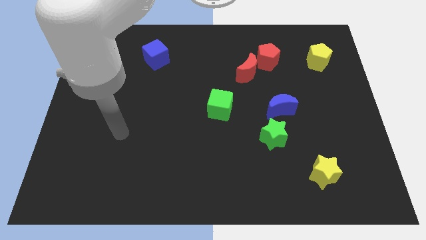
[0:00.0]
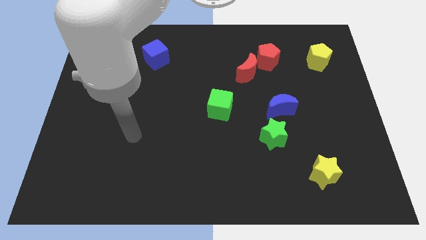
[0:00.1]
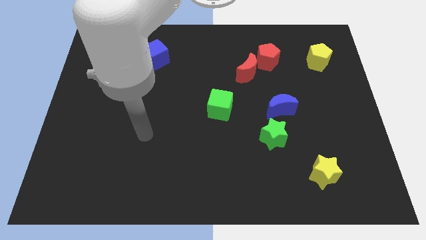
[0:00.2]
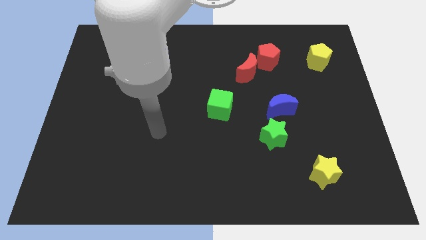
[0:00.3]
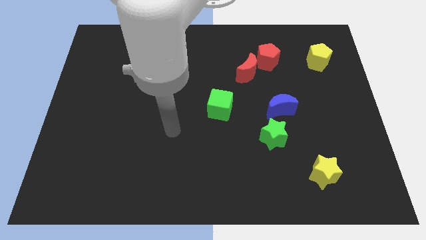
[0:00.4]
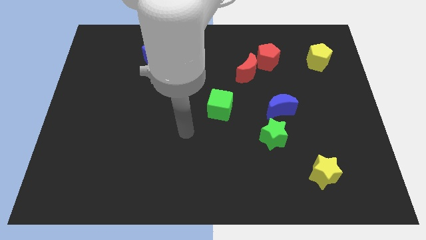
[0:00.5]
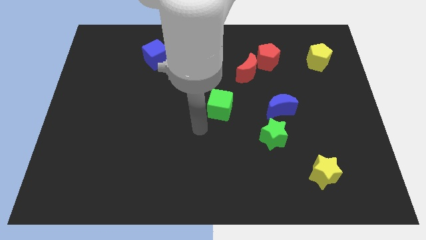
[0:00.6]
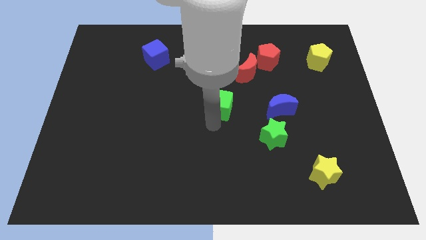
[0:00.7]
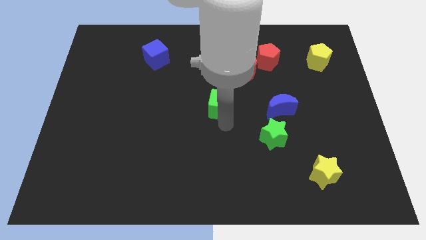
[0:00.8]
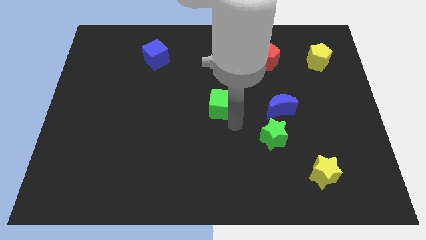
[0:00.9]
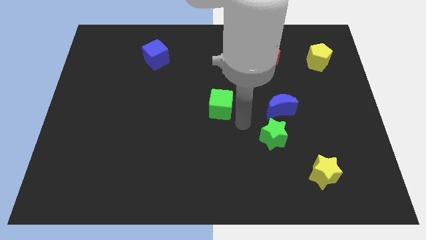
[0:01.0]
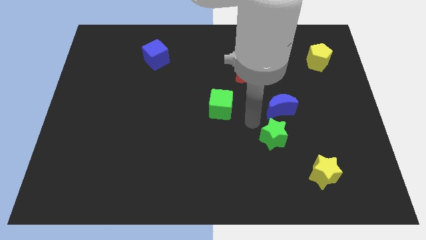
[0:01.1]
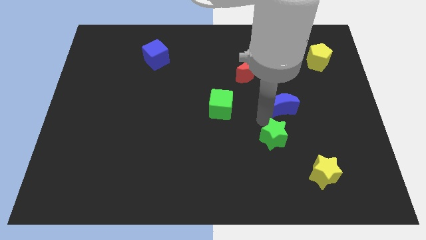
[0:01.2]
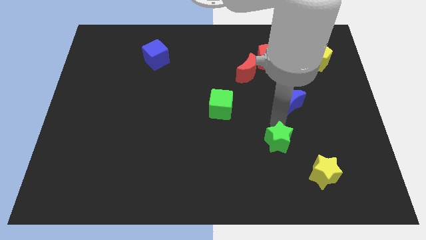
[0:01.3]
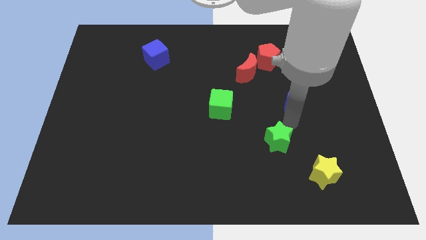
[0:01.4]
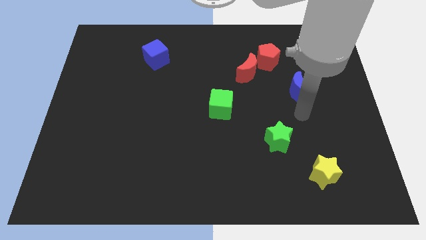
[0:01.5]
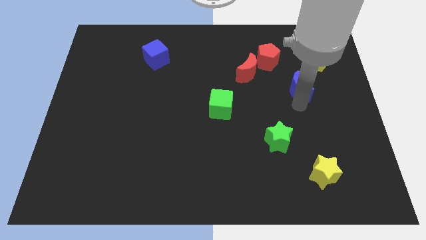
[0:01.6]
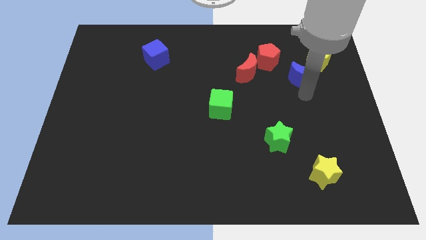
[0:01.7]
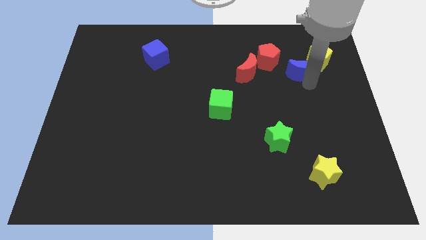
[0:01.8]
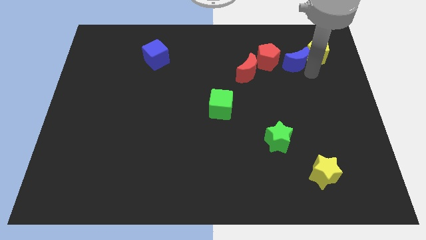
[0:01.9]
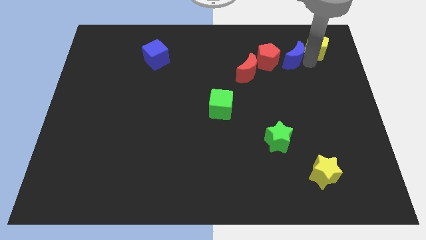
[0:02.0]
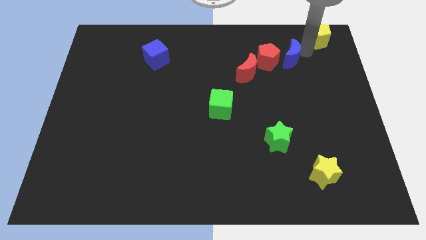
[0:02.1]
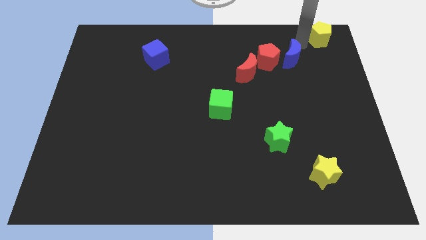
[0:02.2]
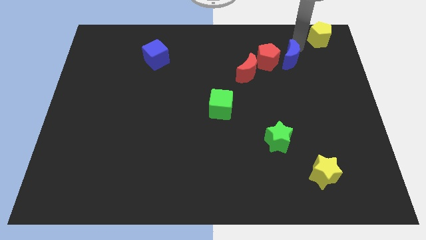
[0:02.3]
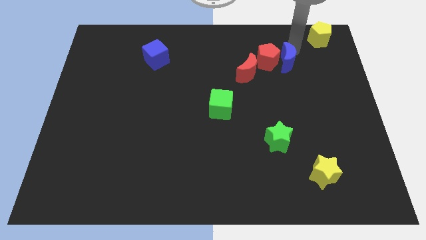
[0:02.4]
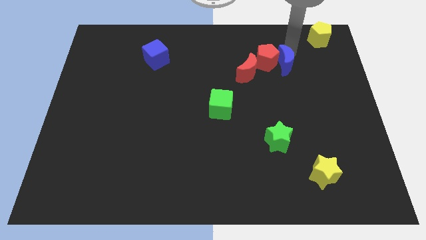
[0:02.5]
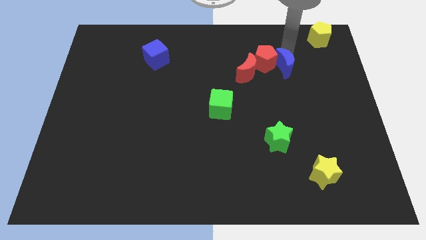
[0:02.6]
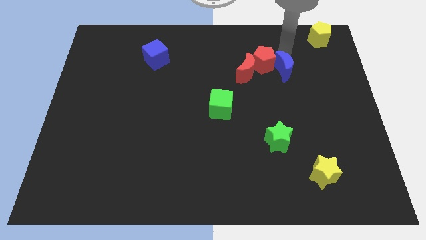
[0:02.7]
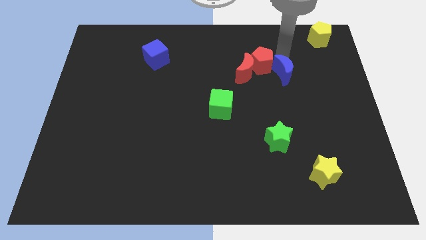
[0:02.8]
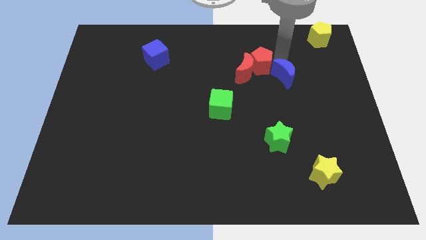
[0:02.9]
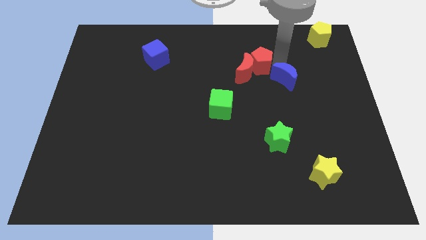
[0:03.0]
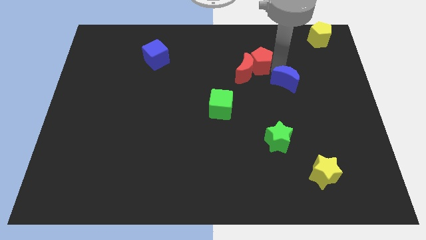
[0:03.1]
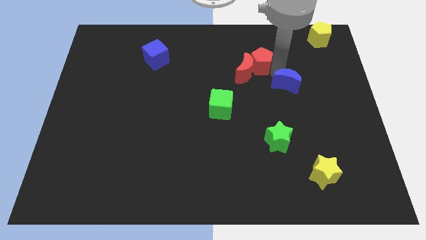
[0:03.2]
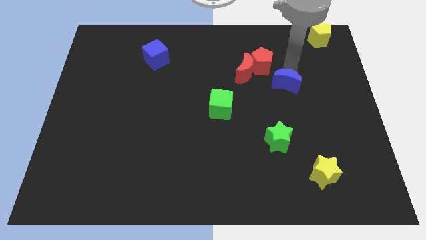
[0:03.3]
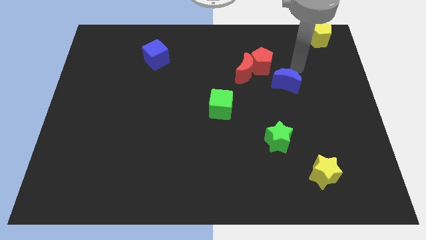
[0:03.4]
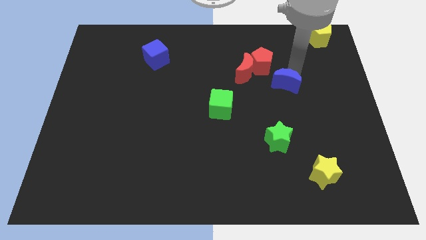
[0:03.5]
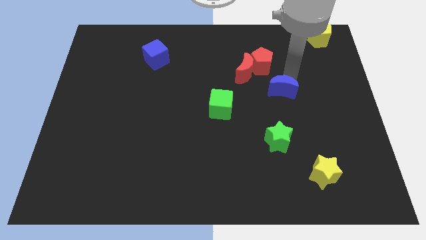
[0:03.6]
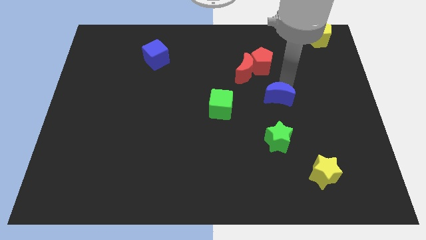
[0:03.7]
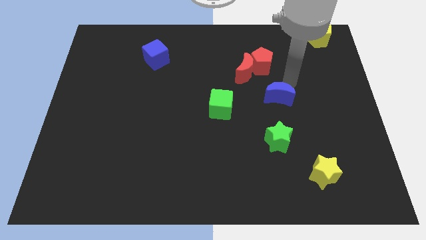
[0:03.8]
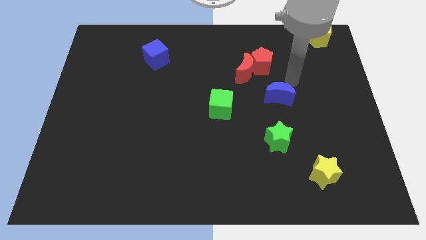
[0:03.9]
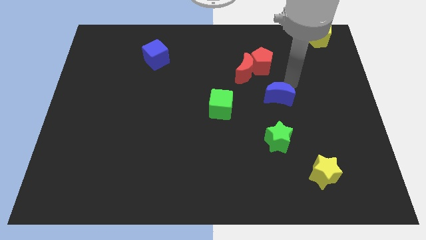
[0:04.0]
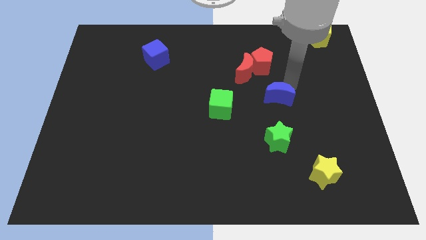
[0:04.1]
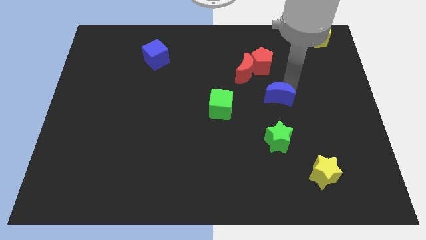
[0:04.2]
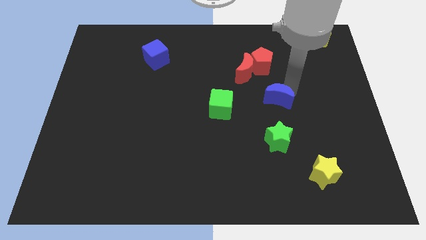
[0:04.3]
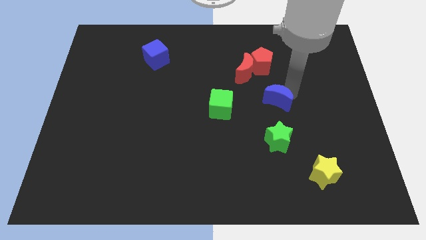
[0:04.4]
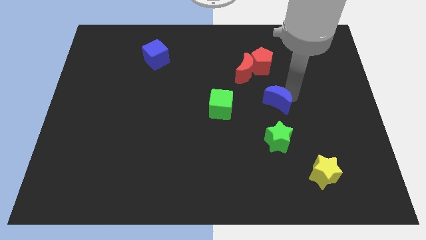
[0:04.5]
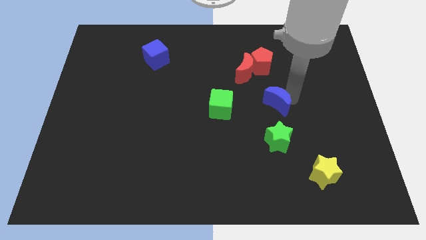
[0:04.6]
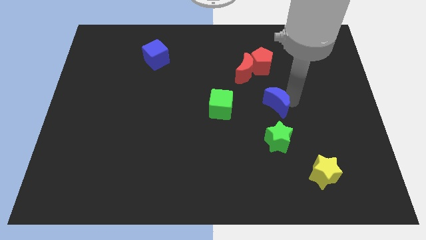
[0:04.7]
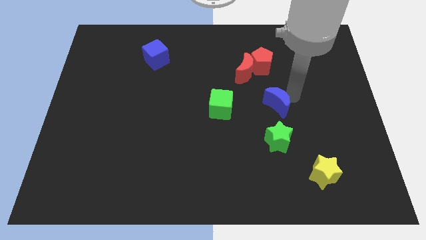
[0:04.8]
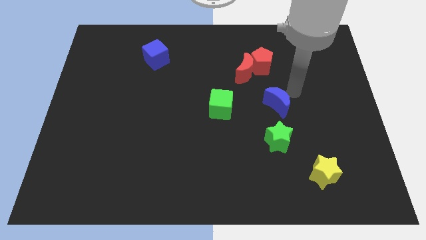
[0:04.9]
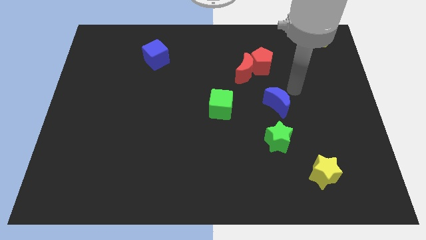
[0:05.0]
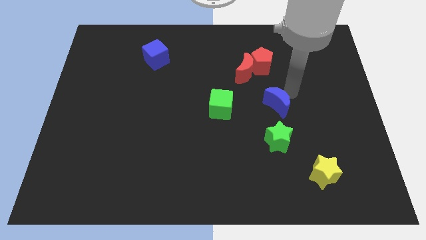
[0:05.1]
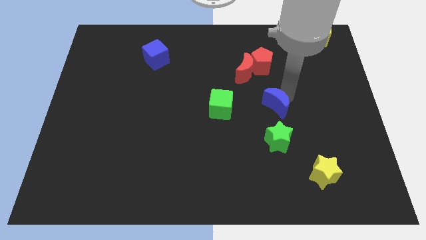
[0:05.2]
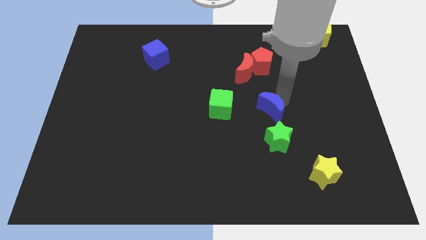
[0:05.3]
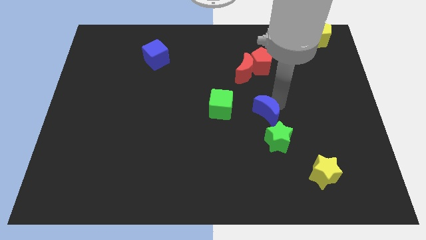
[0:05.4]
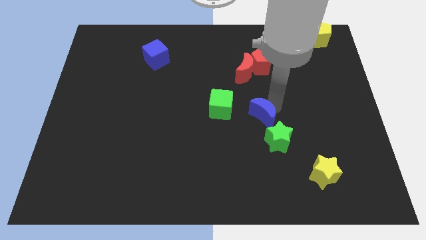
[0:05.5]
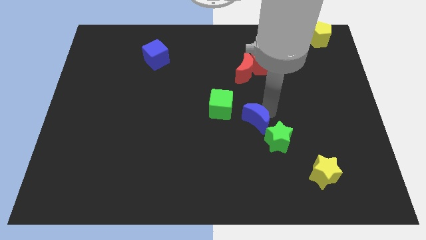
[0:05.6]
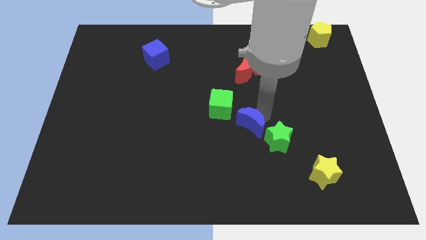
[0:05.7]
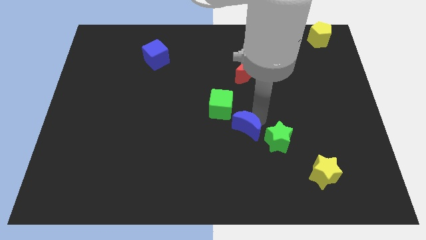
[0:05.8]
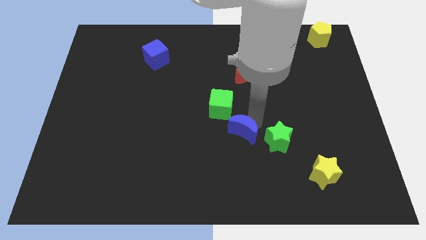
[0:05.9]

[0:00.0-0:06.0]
put the blue moon to the bottom side of the green cube
